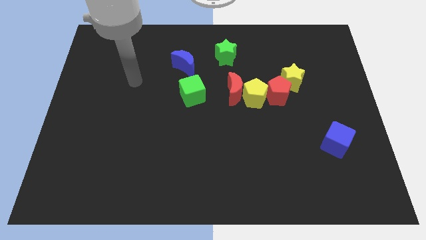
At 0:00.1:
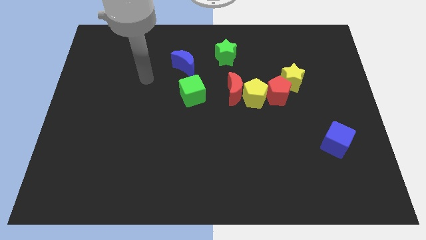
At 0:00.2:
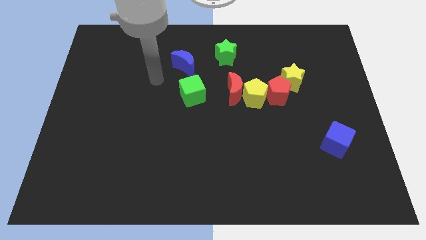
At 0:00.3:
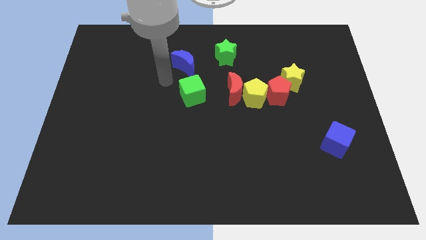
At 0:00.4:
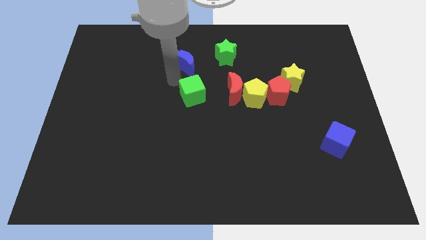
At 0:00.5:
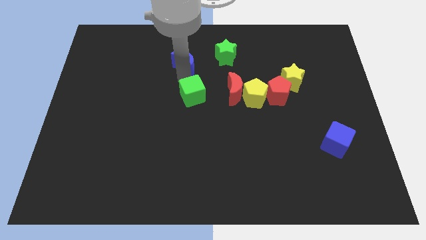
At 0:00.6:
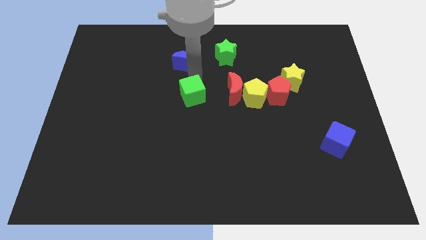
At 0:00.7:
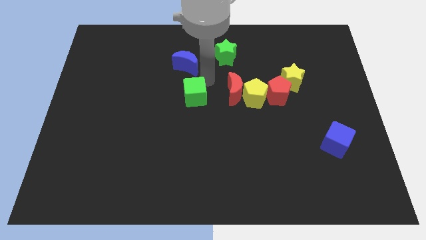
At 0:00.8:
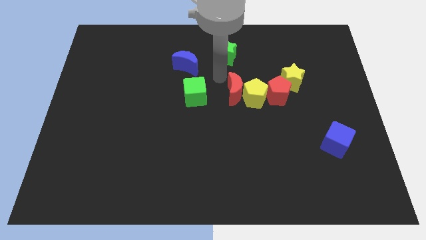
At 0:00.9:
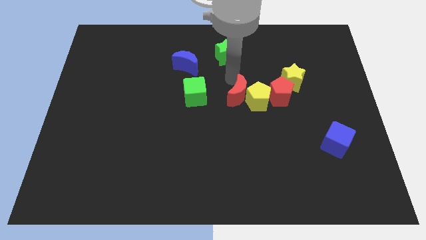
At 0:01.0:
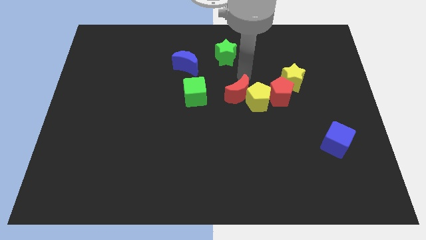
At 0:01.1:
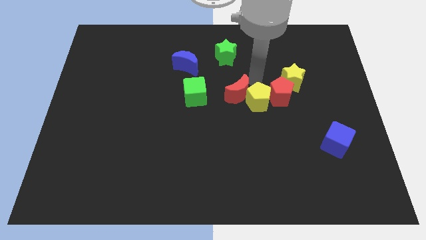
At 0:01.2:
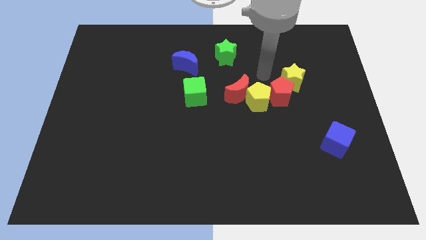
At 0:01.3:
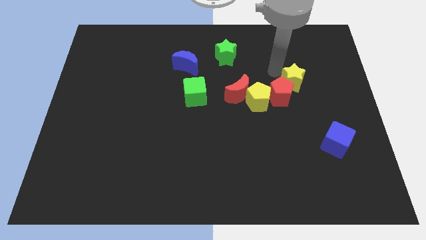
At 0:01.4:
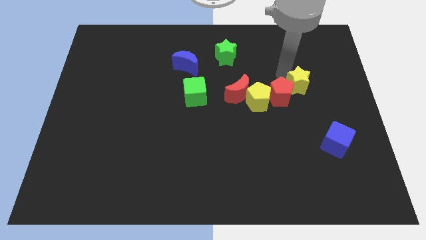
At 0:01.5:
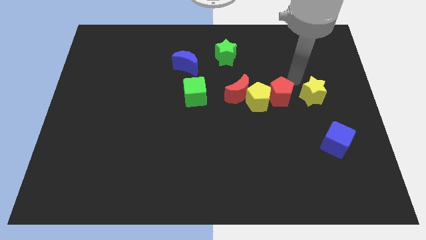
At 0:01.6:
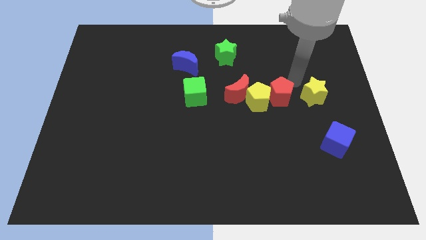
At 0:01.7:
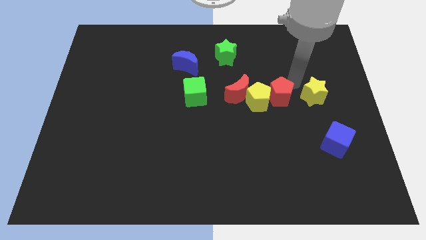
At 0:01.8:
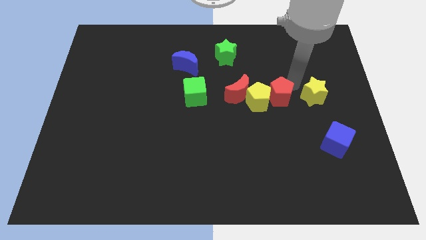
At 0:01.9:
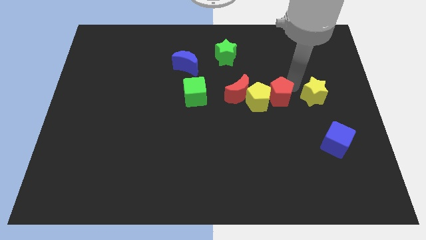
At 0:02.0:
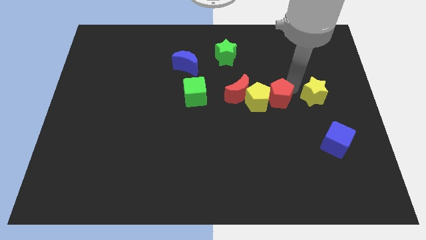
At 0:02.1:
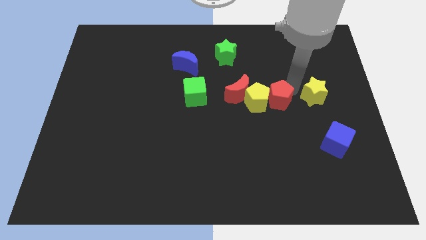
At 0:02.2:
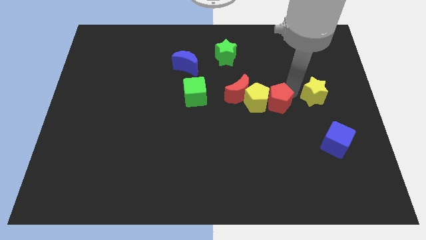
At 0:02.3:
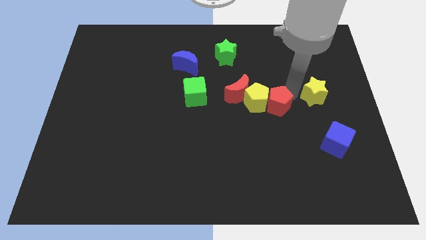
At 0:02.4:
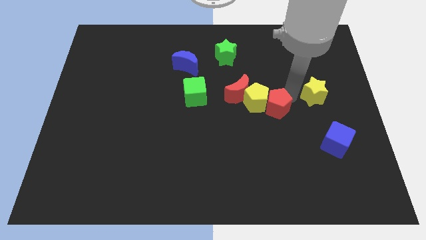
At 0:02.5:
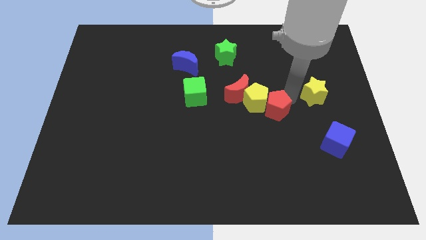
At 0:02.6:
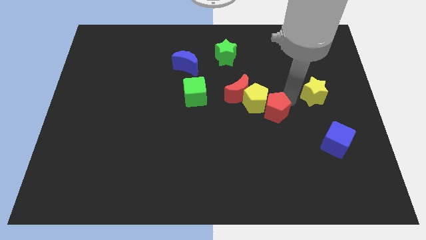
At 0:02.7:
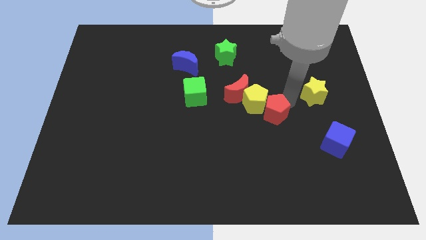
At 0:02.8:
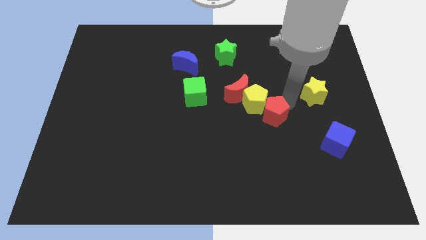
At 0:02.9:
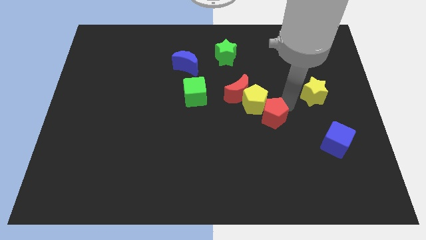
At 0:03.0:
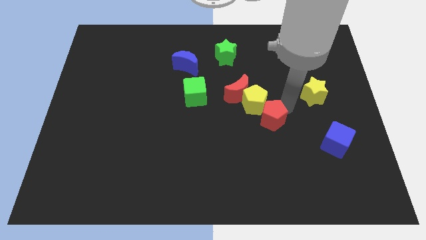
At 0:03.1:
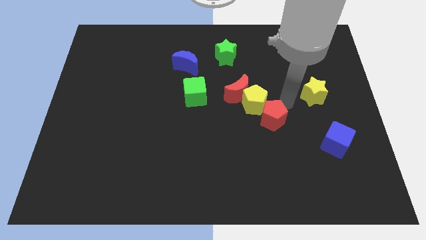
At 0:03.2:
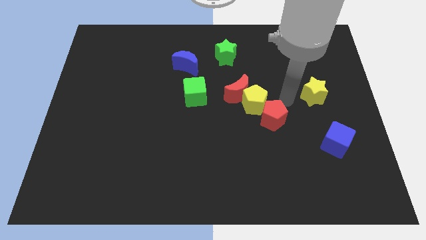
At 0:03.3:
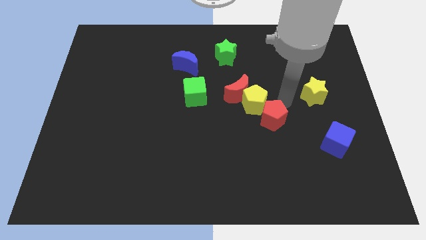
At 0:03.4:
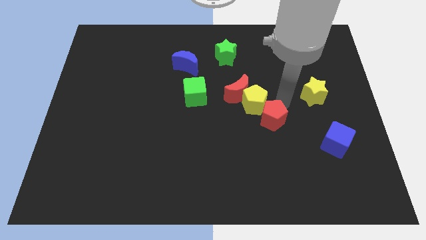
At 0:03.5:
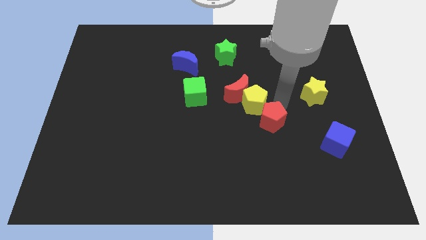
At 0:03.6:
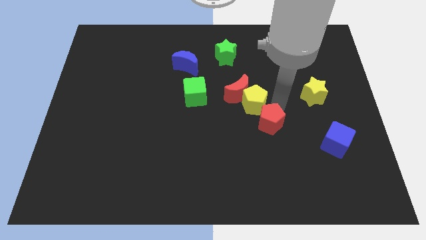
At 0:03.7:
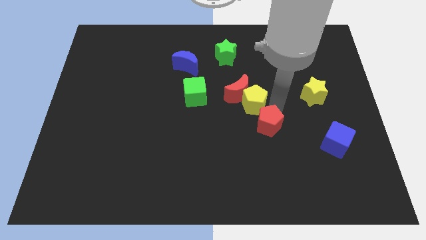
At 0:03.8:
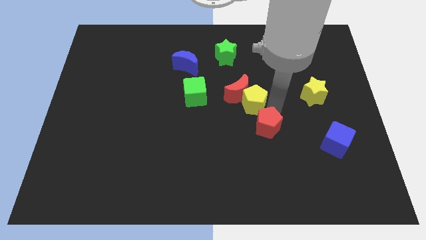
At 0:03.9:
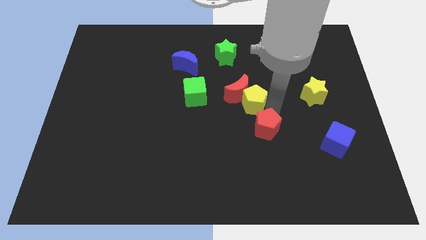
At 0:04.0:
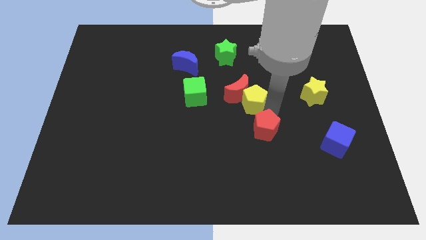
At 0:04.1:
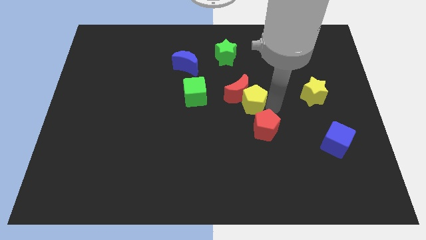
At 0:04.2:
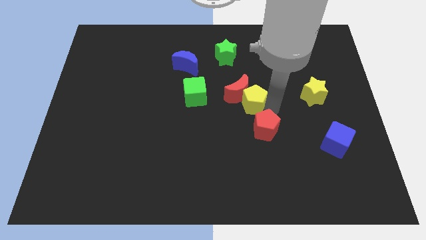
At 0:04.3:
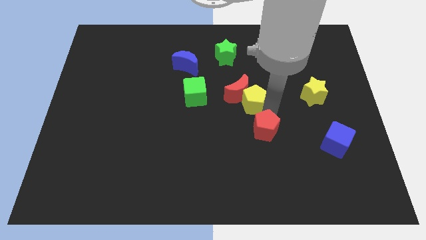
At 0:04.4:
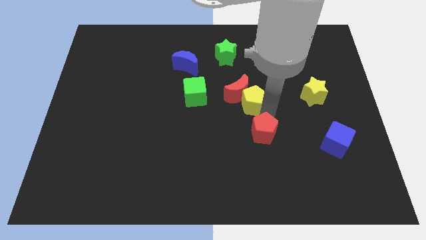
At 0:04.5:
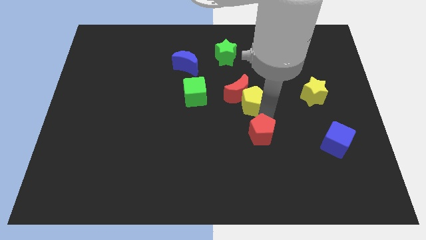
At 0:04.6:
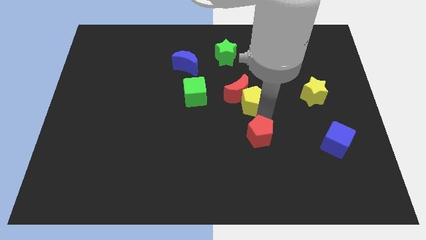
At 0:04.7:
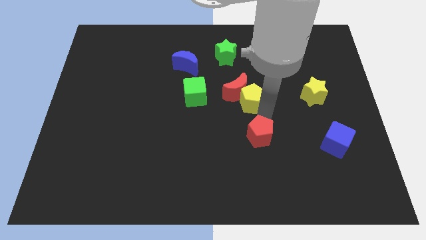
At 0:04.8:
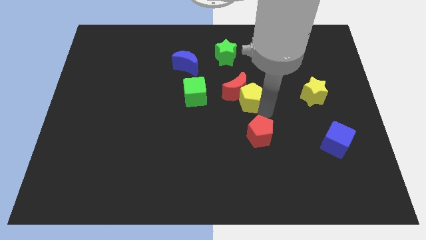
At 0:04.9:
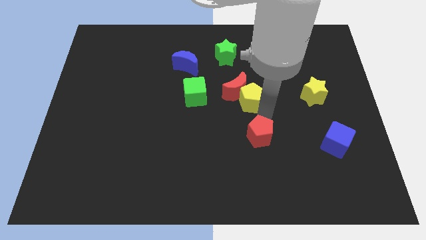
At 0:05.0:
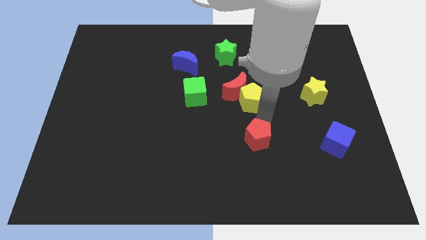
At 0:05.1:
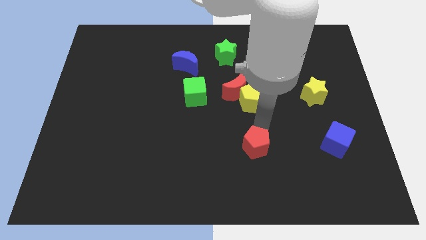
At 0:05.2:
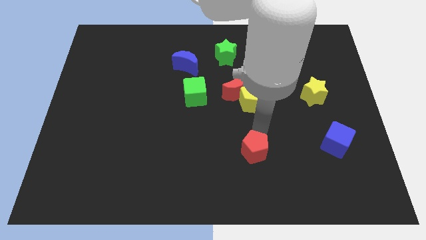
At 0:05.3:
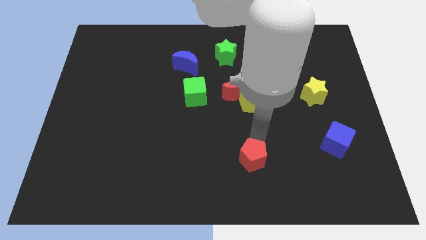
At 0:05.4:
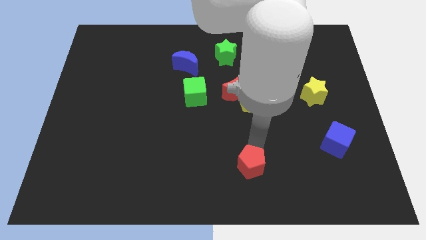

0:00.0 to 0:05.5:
slide the red pentagon to the bottom

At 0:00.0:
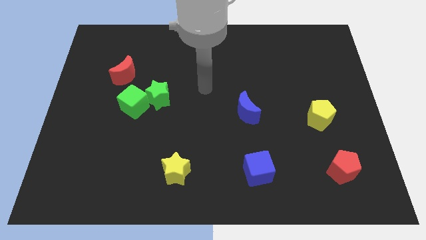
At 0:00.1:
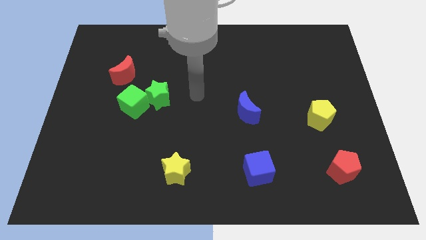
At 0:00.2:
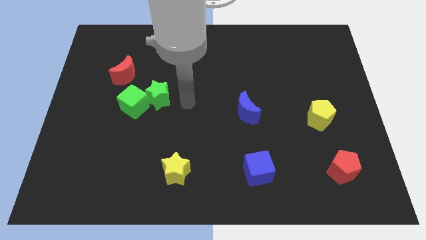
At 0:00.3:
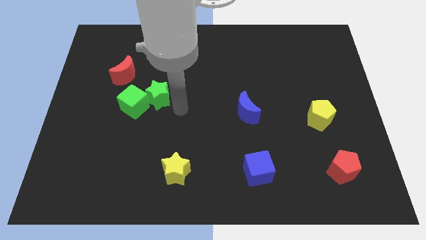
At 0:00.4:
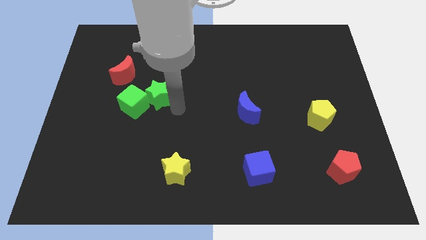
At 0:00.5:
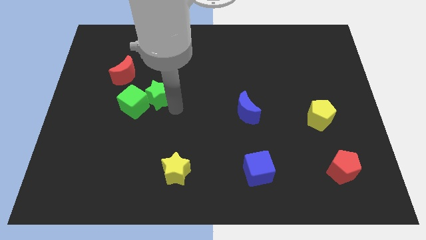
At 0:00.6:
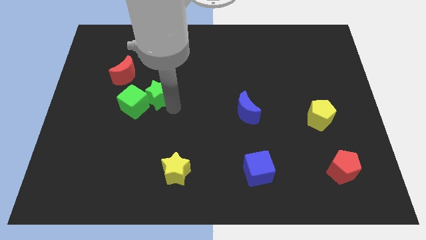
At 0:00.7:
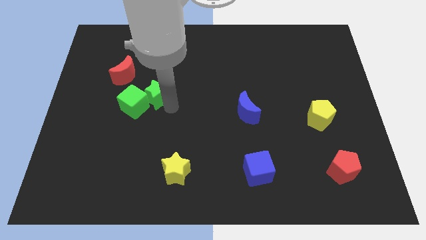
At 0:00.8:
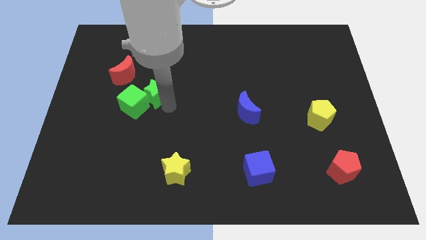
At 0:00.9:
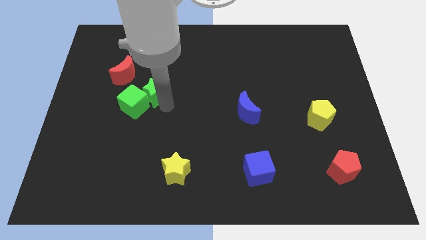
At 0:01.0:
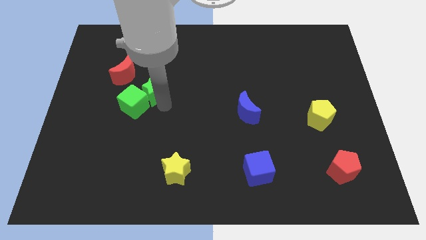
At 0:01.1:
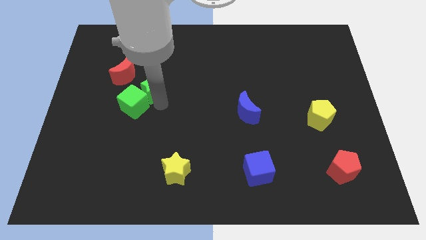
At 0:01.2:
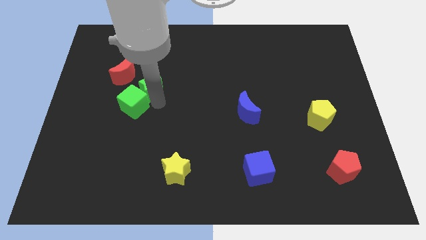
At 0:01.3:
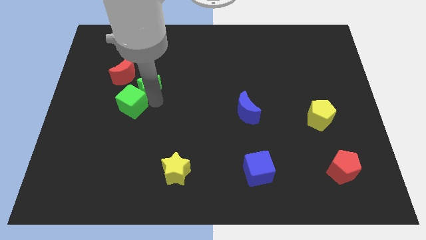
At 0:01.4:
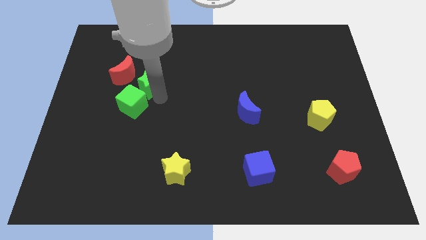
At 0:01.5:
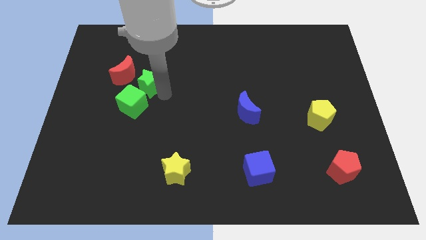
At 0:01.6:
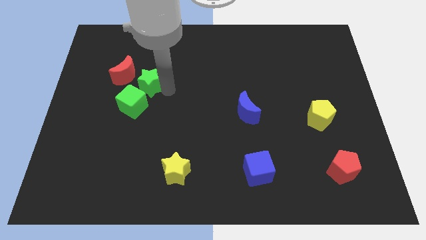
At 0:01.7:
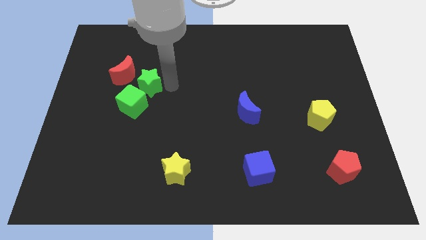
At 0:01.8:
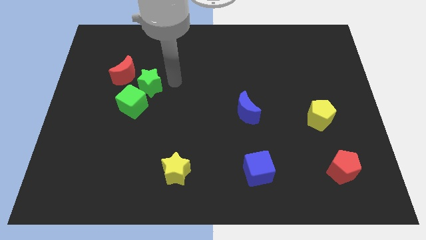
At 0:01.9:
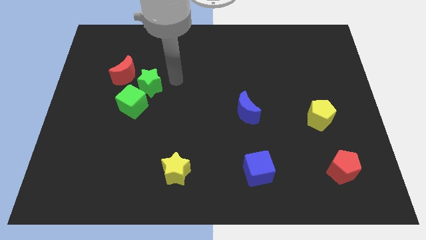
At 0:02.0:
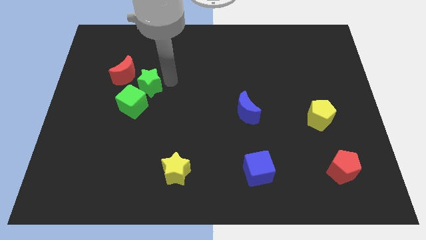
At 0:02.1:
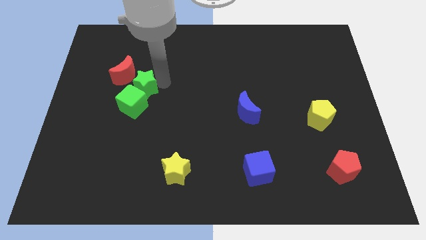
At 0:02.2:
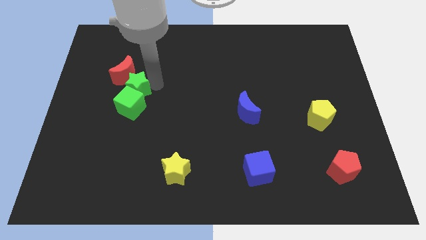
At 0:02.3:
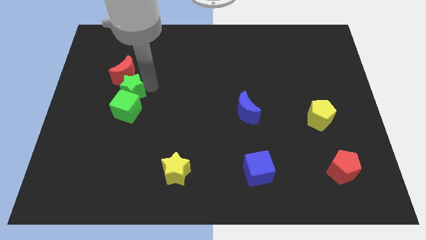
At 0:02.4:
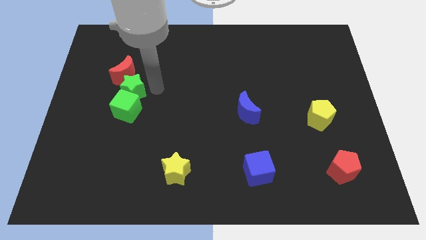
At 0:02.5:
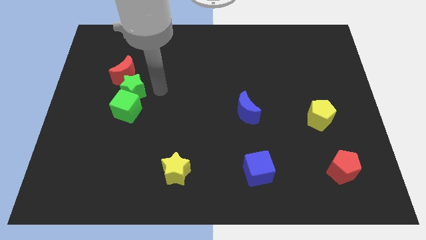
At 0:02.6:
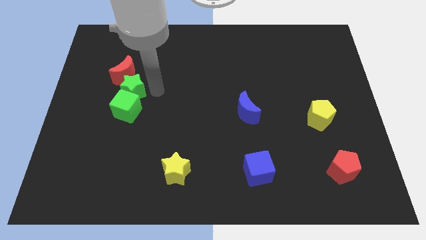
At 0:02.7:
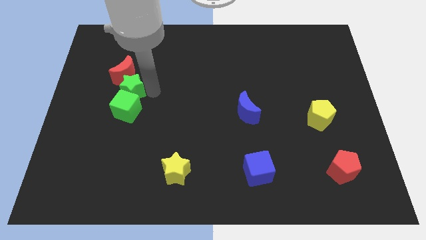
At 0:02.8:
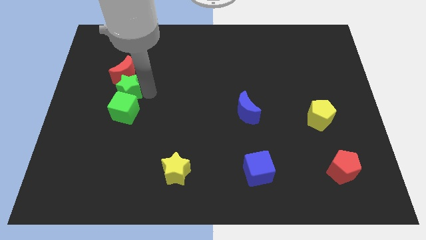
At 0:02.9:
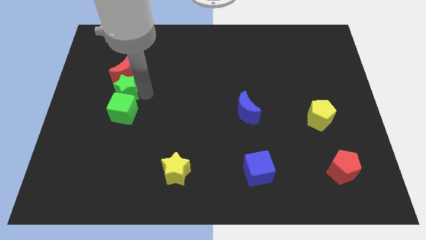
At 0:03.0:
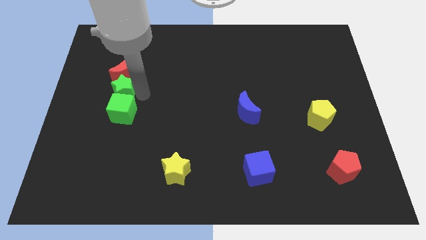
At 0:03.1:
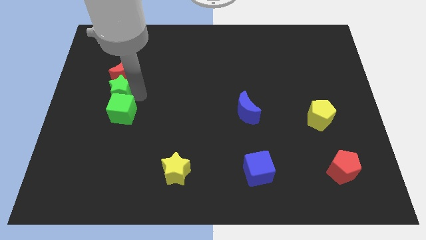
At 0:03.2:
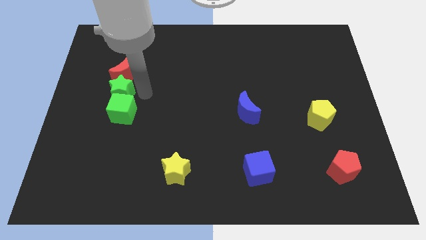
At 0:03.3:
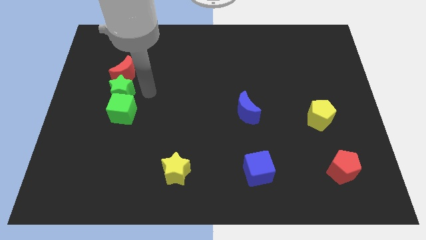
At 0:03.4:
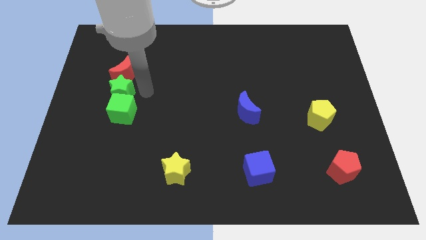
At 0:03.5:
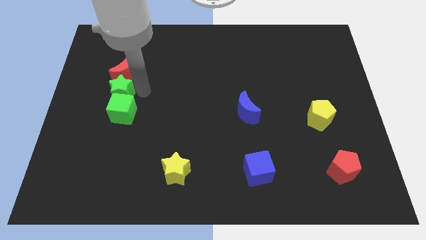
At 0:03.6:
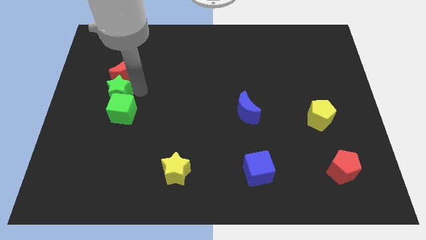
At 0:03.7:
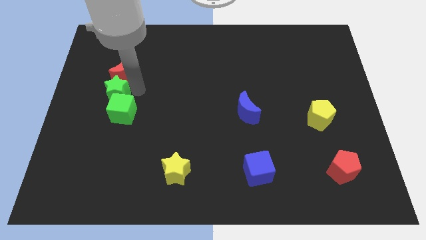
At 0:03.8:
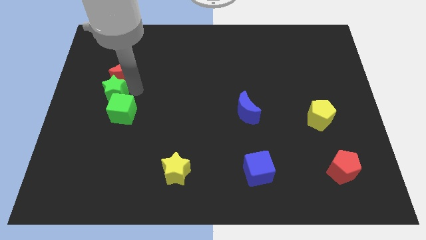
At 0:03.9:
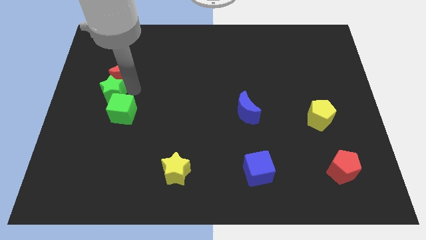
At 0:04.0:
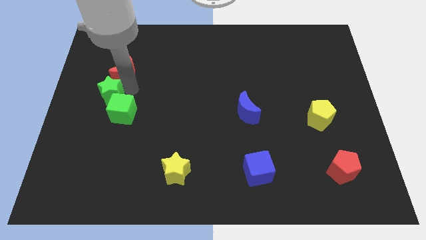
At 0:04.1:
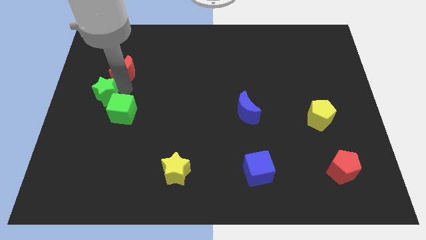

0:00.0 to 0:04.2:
move the green star to the left side
